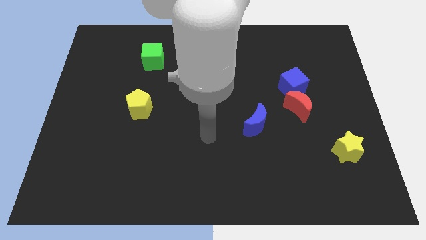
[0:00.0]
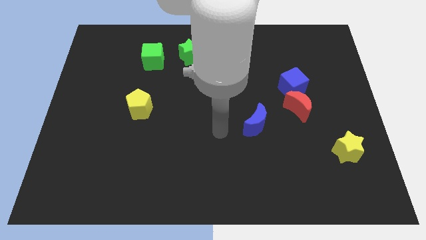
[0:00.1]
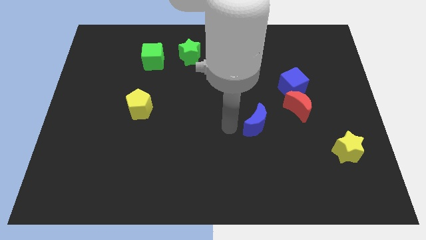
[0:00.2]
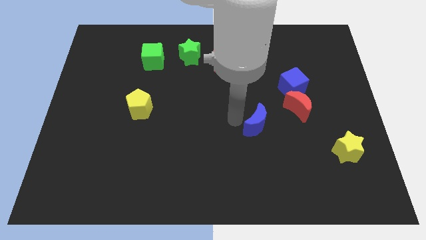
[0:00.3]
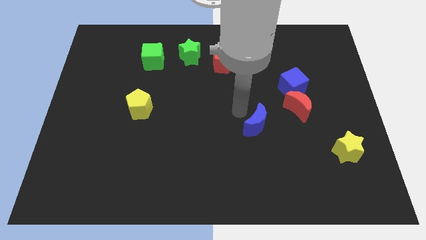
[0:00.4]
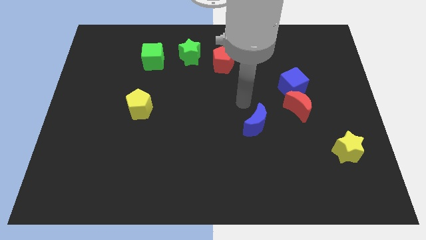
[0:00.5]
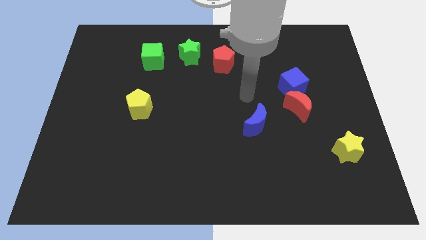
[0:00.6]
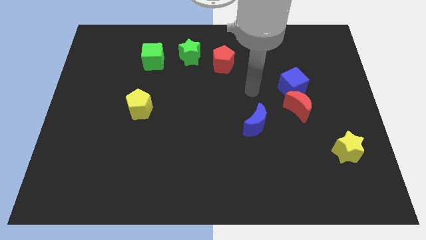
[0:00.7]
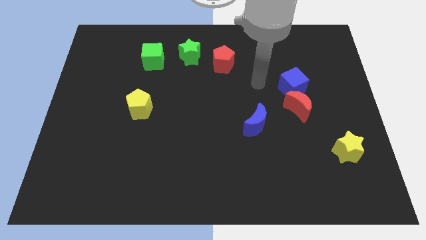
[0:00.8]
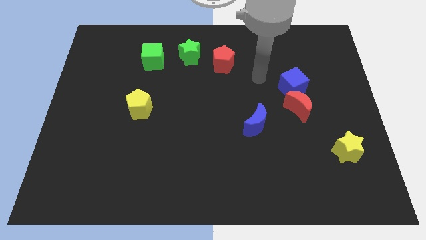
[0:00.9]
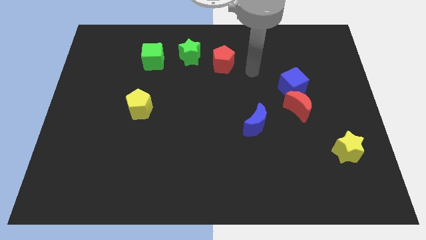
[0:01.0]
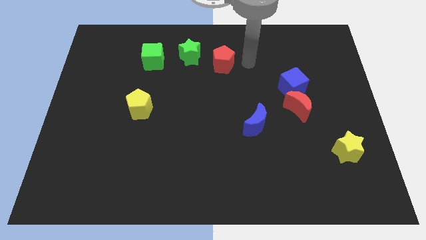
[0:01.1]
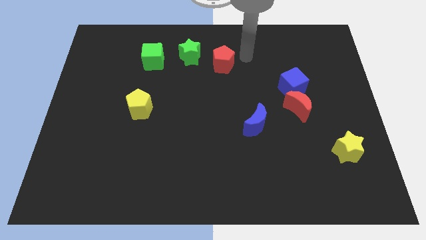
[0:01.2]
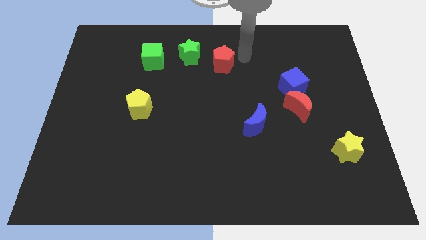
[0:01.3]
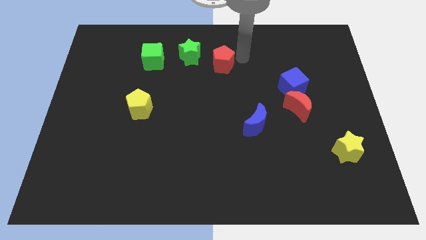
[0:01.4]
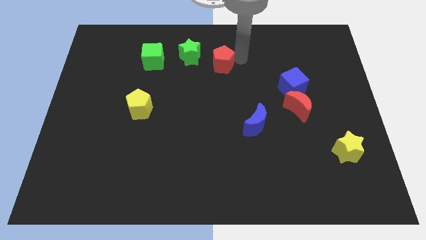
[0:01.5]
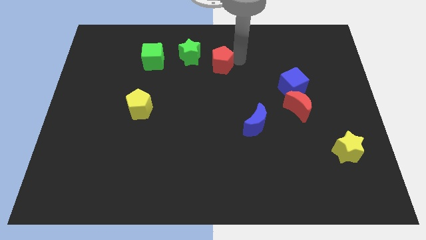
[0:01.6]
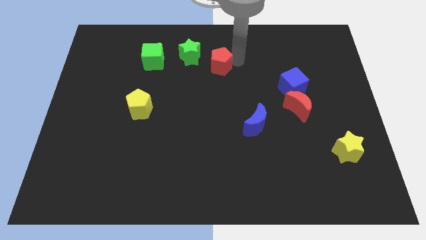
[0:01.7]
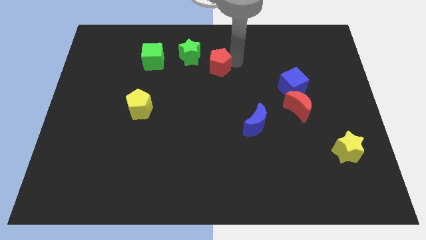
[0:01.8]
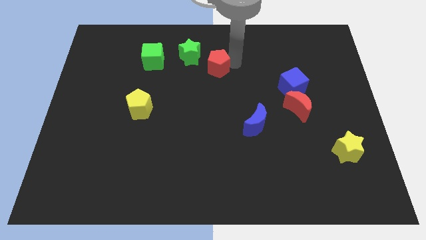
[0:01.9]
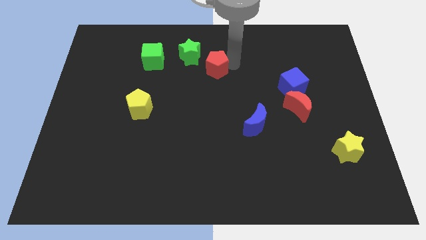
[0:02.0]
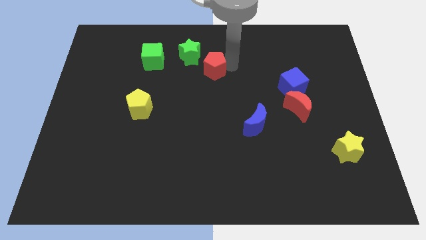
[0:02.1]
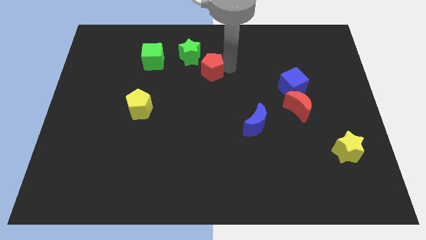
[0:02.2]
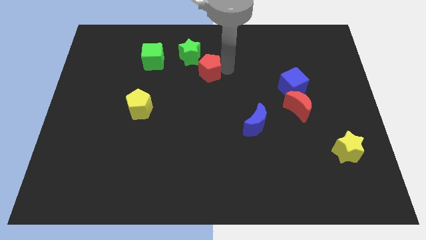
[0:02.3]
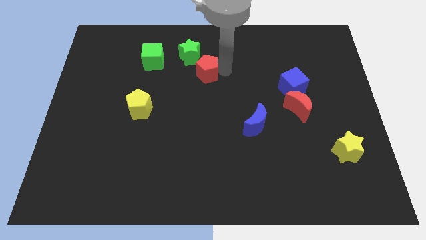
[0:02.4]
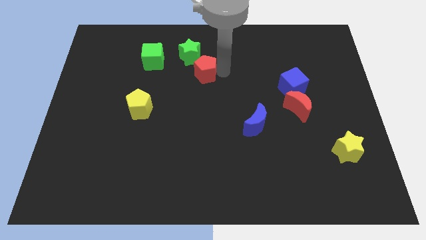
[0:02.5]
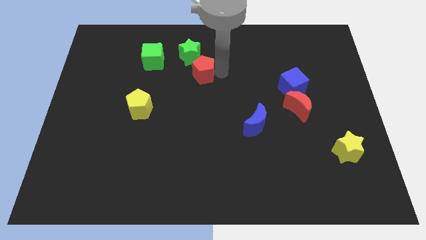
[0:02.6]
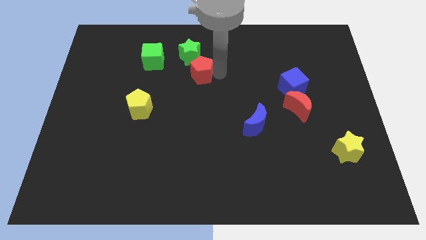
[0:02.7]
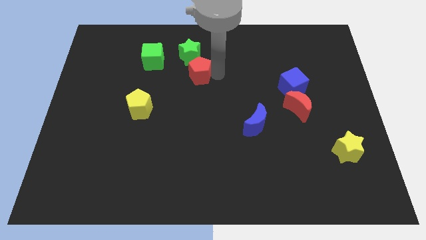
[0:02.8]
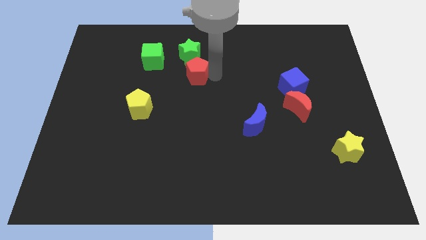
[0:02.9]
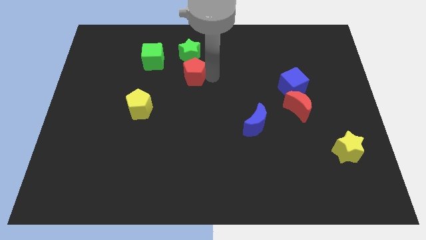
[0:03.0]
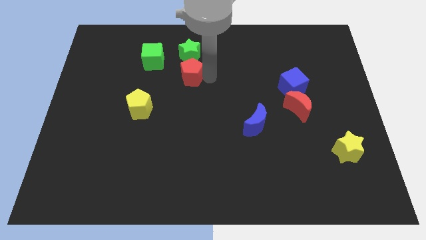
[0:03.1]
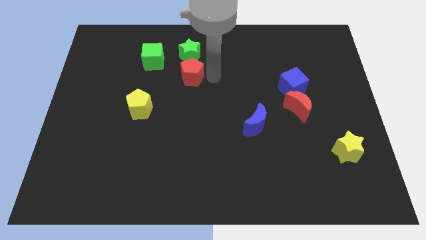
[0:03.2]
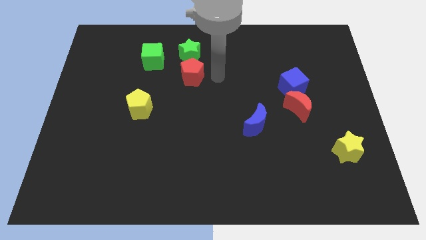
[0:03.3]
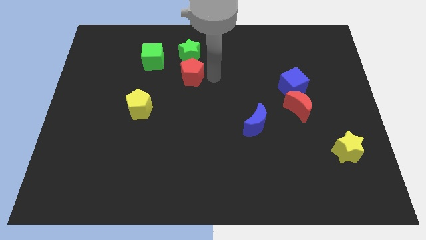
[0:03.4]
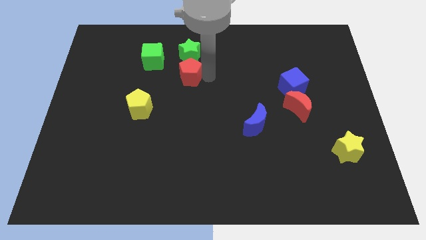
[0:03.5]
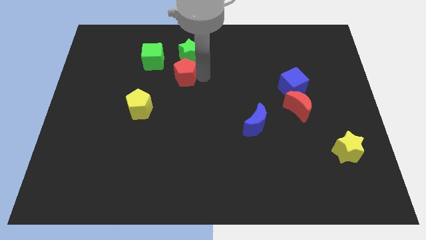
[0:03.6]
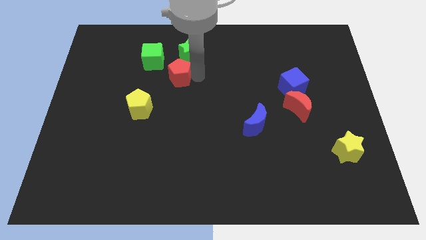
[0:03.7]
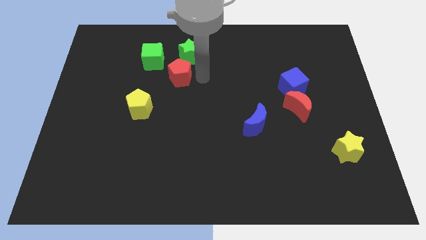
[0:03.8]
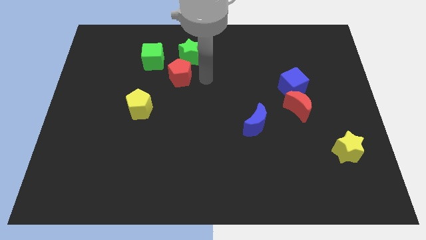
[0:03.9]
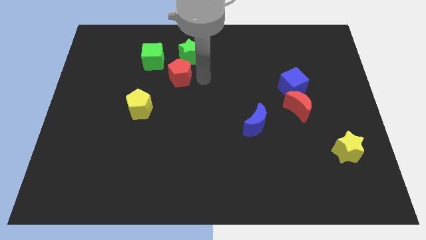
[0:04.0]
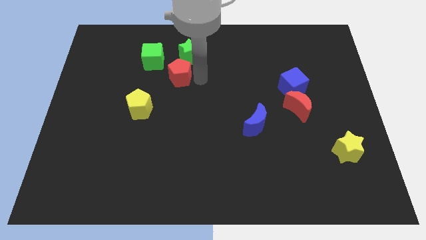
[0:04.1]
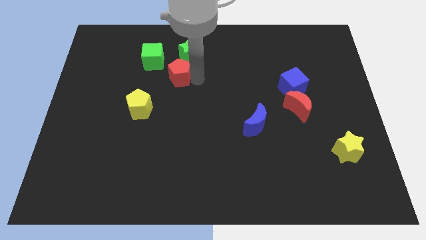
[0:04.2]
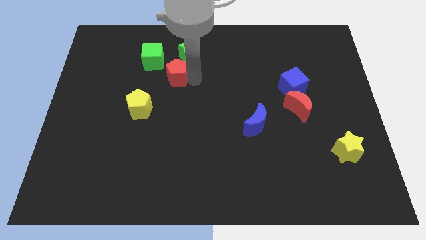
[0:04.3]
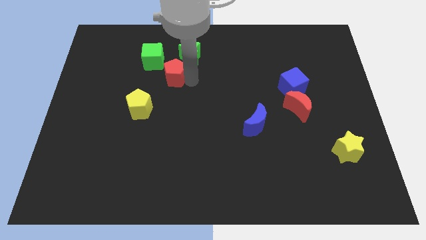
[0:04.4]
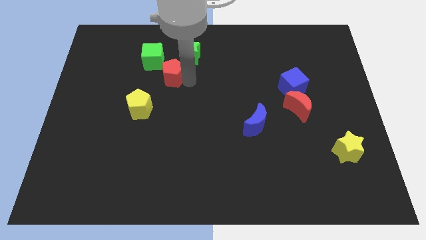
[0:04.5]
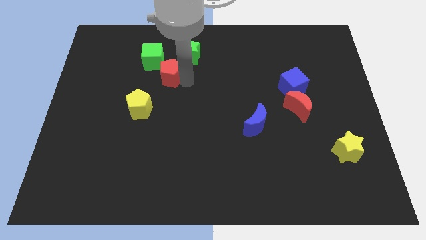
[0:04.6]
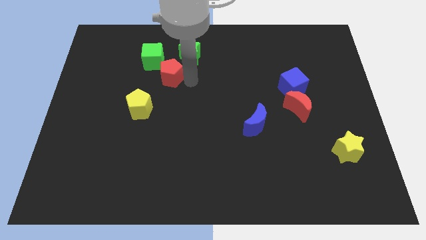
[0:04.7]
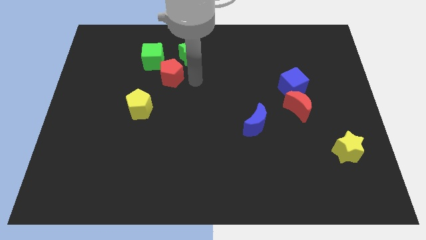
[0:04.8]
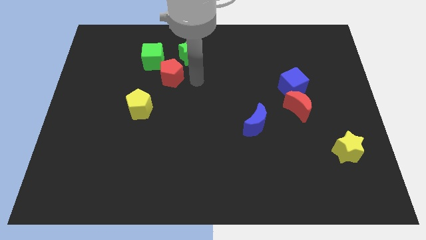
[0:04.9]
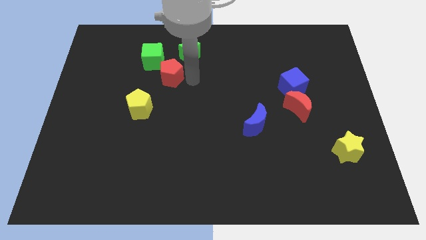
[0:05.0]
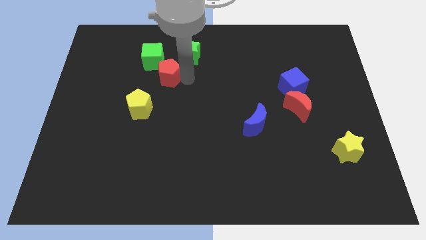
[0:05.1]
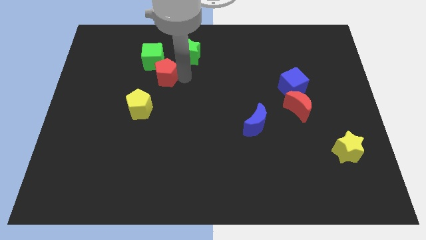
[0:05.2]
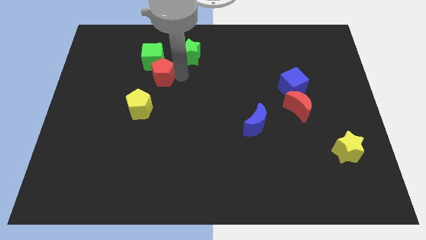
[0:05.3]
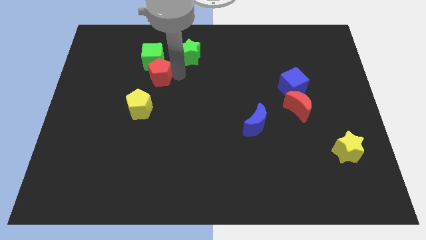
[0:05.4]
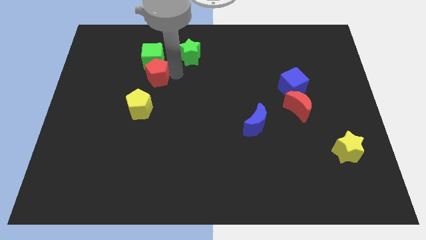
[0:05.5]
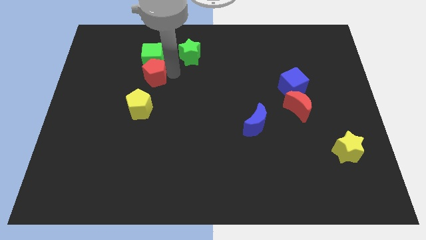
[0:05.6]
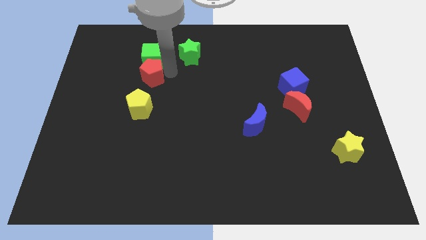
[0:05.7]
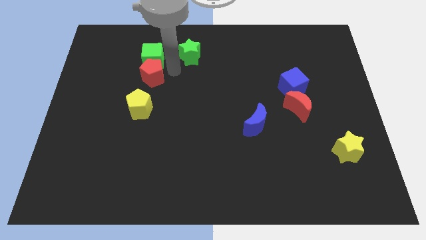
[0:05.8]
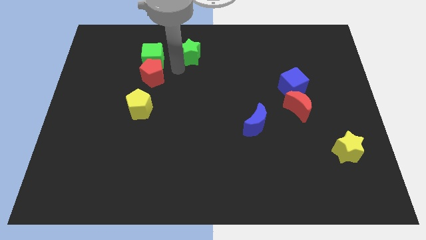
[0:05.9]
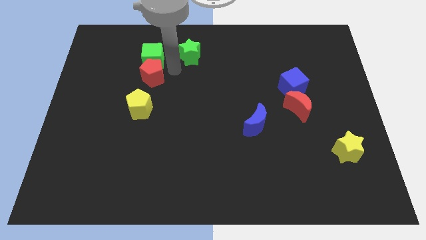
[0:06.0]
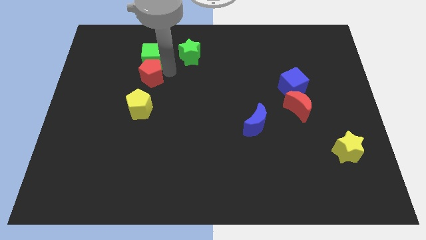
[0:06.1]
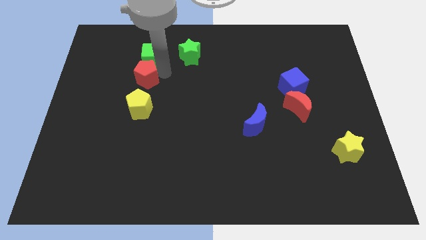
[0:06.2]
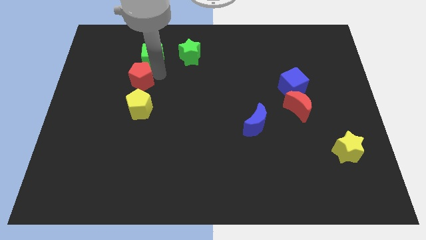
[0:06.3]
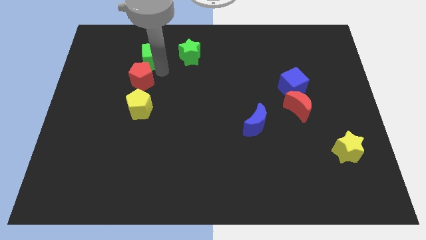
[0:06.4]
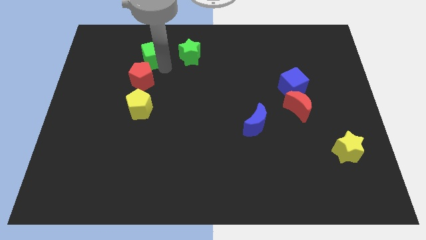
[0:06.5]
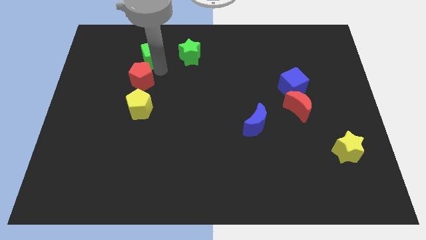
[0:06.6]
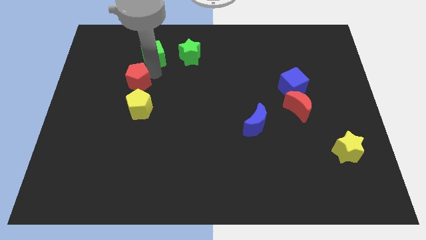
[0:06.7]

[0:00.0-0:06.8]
move the red pentagon to the top left side of the yellow pentagon
